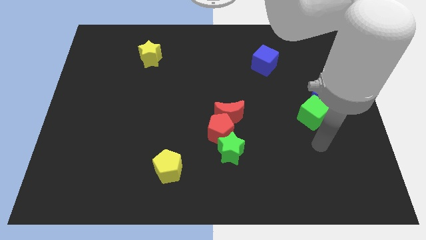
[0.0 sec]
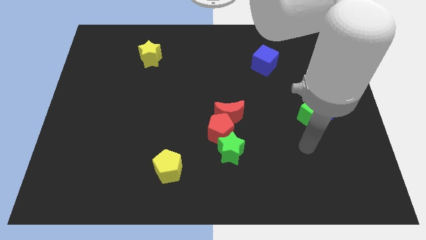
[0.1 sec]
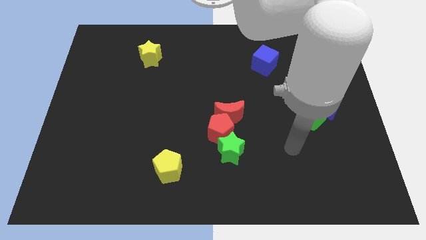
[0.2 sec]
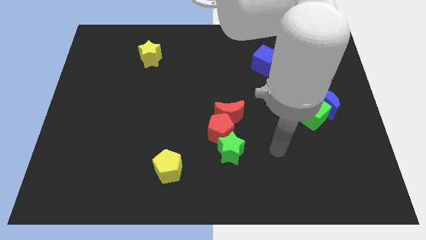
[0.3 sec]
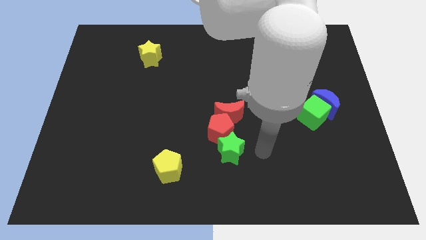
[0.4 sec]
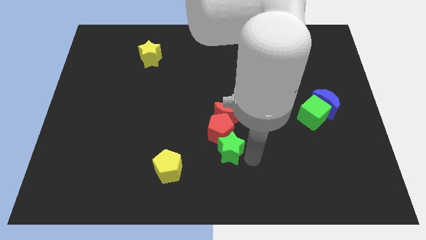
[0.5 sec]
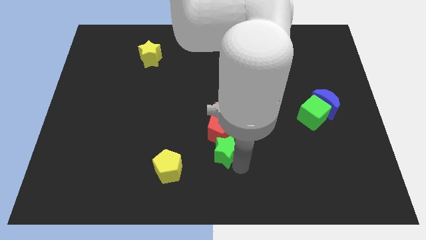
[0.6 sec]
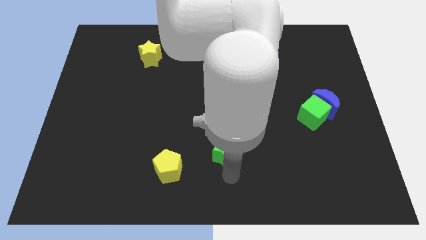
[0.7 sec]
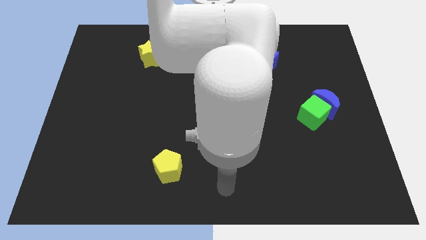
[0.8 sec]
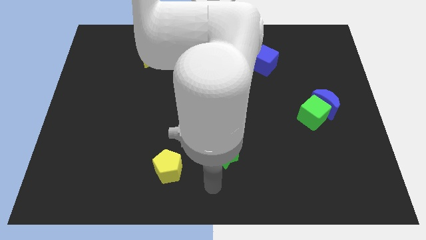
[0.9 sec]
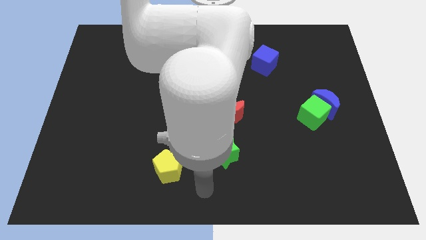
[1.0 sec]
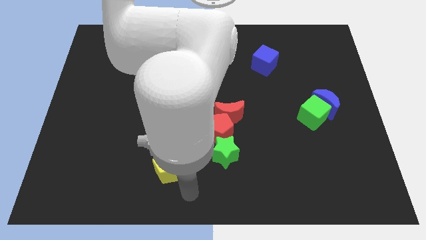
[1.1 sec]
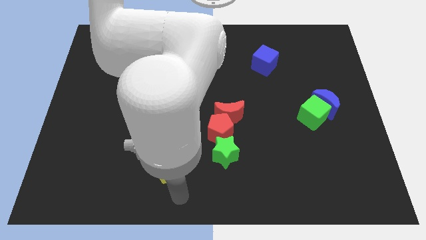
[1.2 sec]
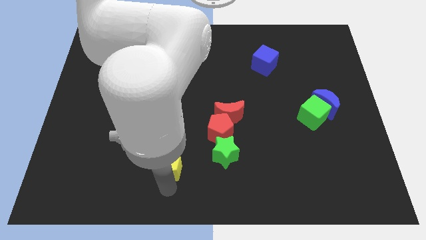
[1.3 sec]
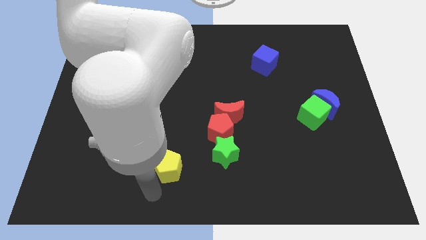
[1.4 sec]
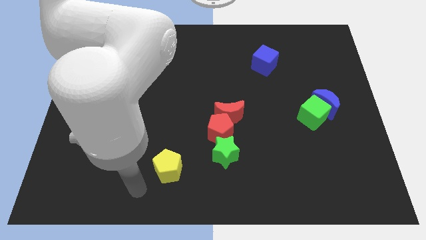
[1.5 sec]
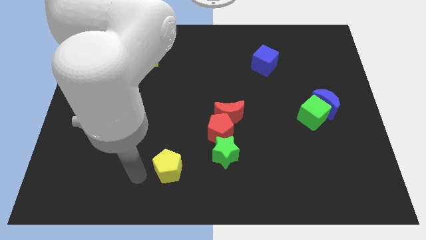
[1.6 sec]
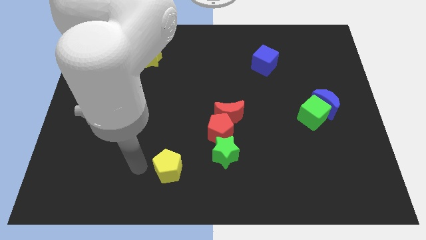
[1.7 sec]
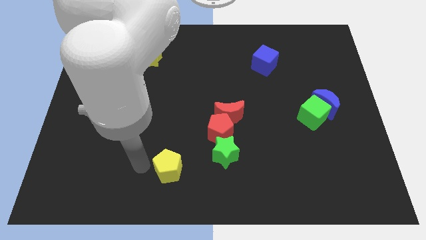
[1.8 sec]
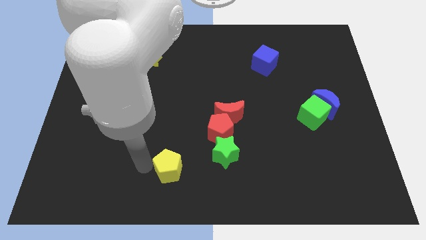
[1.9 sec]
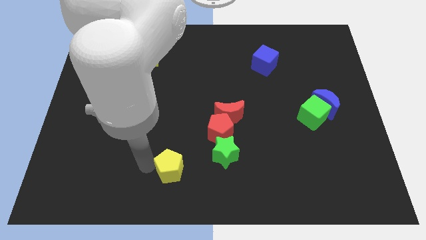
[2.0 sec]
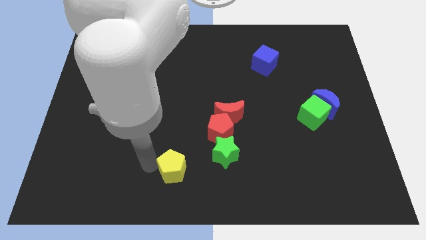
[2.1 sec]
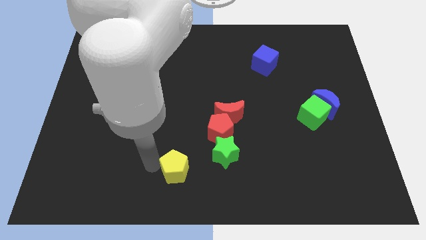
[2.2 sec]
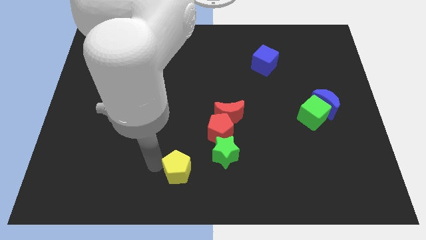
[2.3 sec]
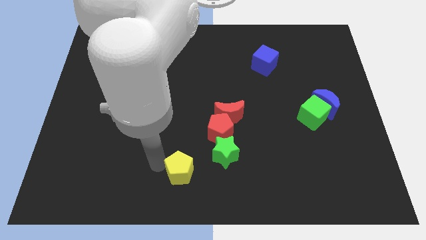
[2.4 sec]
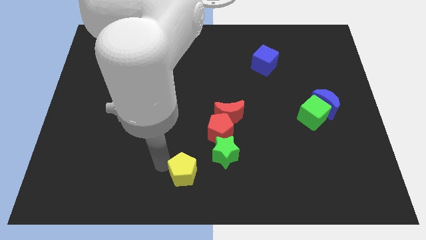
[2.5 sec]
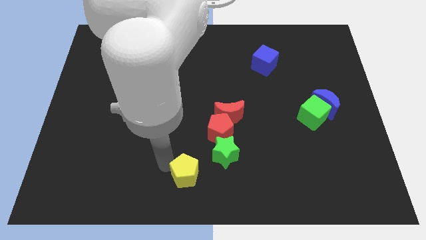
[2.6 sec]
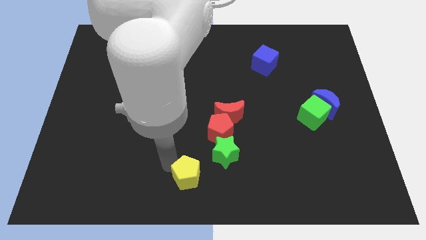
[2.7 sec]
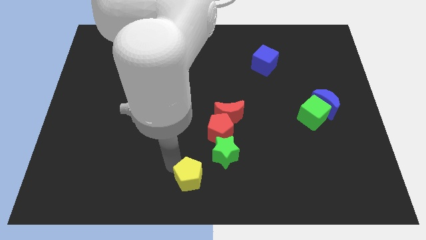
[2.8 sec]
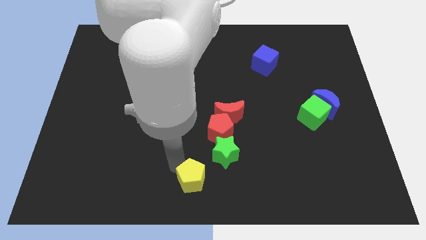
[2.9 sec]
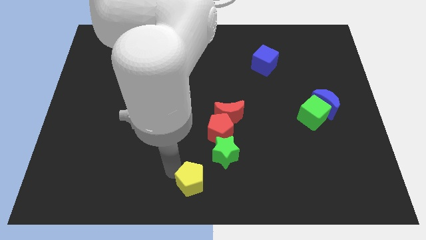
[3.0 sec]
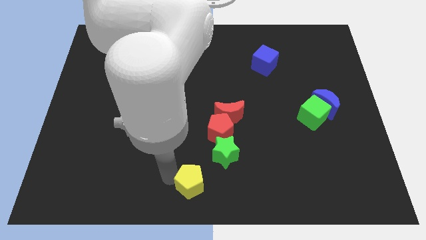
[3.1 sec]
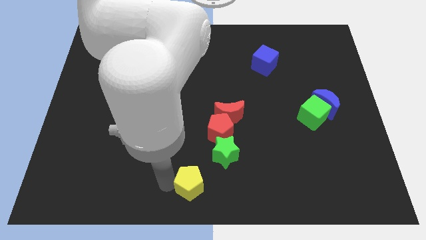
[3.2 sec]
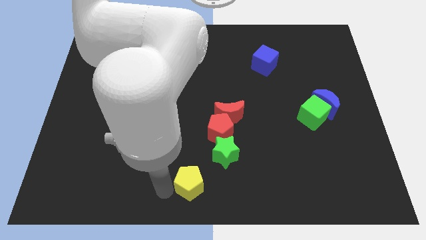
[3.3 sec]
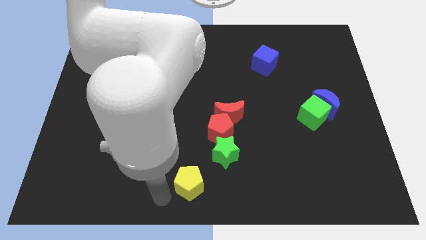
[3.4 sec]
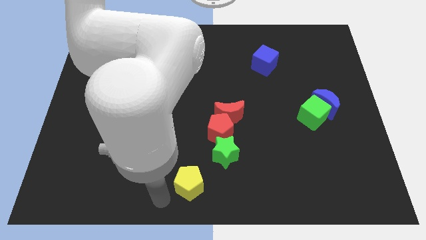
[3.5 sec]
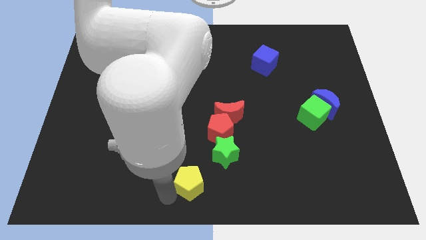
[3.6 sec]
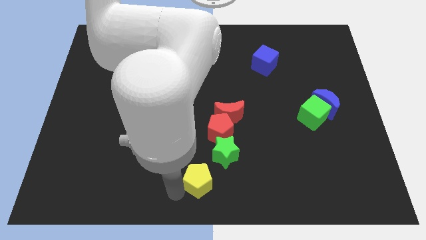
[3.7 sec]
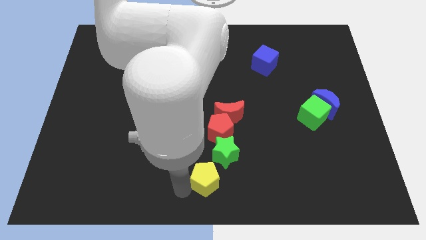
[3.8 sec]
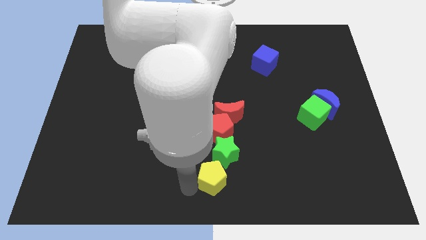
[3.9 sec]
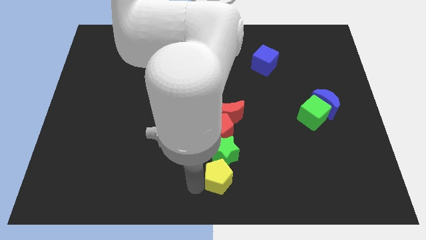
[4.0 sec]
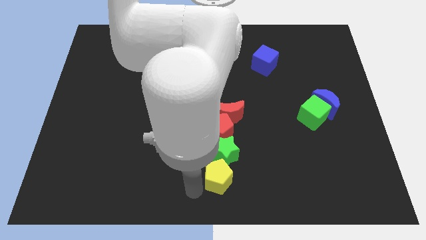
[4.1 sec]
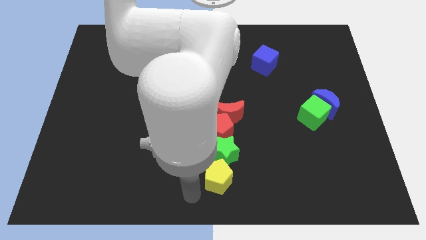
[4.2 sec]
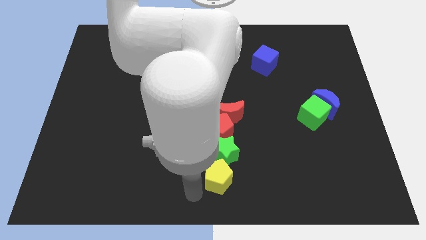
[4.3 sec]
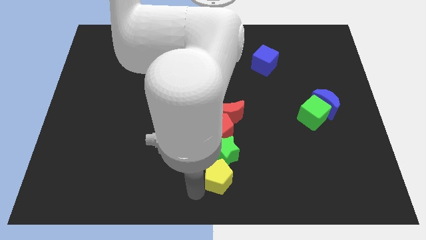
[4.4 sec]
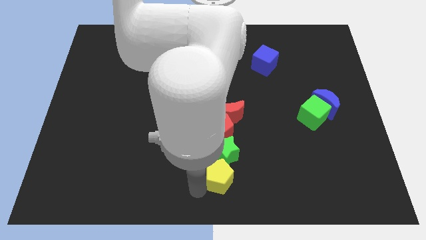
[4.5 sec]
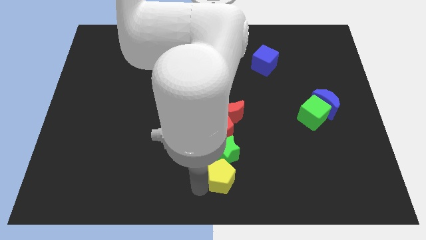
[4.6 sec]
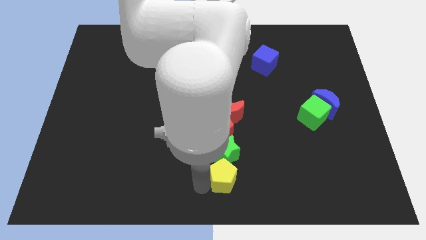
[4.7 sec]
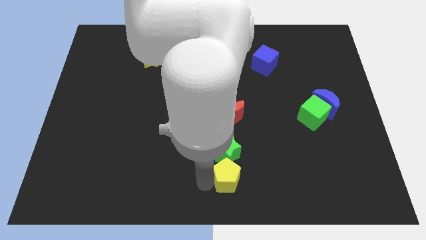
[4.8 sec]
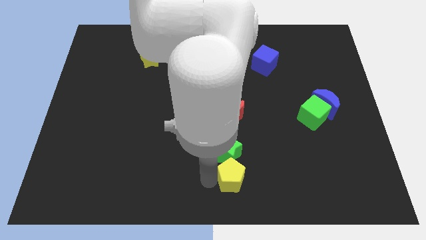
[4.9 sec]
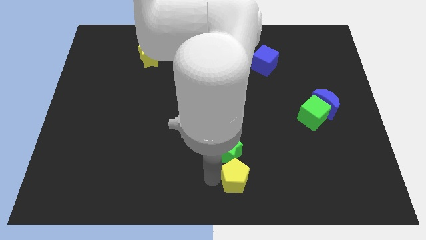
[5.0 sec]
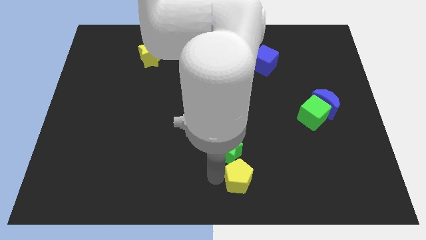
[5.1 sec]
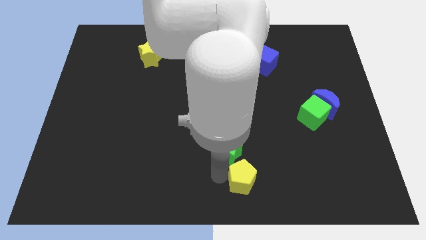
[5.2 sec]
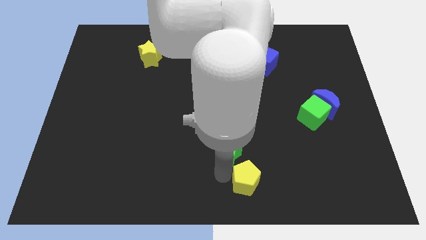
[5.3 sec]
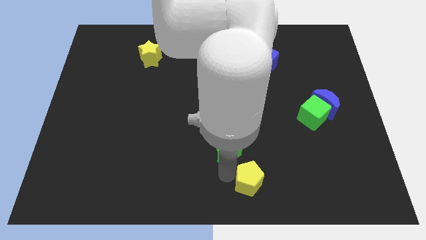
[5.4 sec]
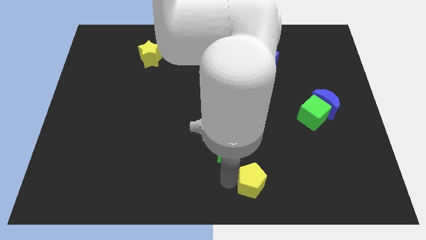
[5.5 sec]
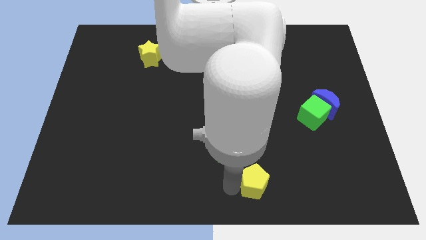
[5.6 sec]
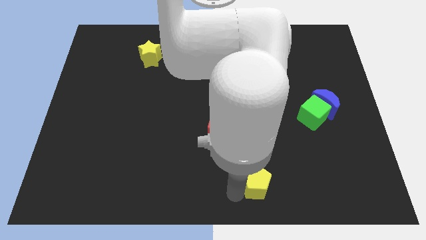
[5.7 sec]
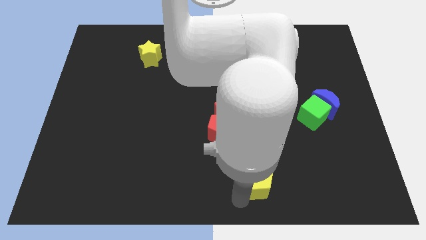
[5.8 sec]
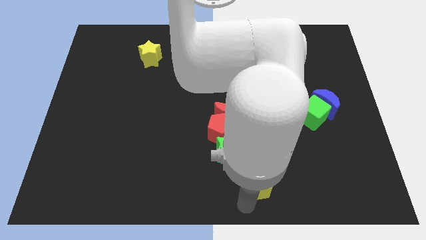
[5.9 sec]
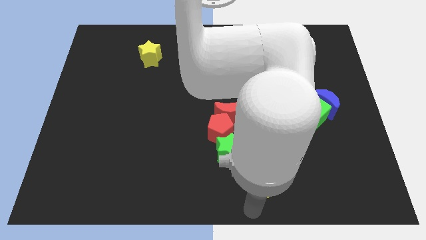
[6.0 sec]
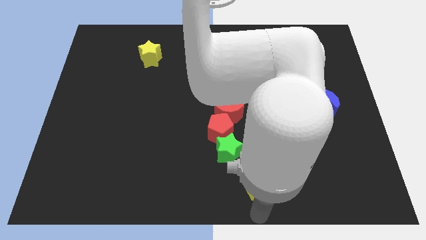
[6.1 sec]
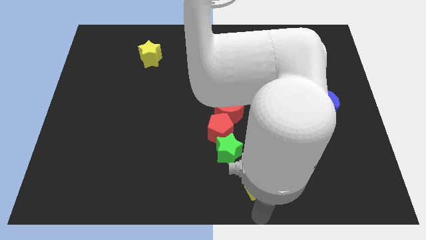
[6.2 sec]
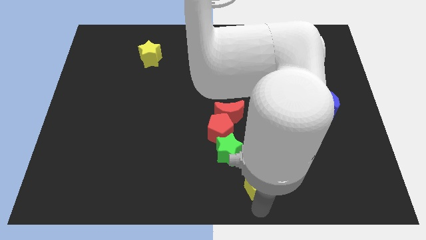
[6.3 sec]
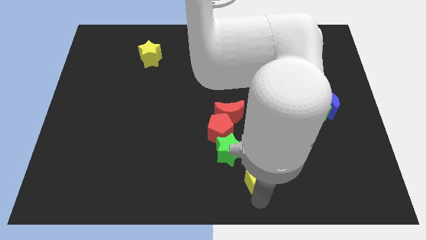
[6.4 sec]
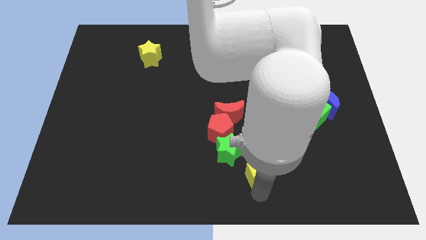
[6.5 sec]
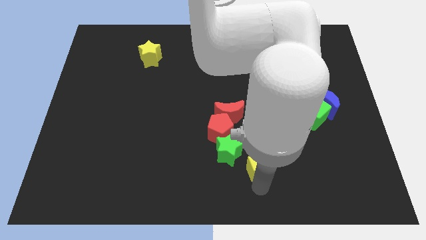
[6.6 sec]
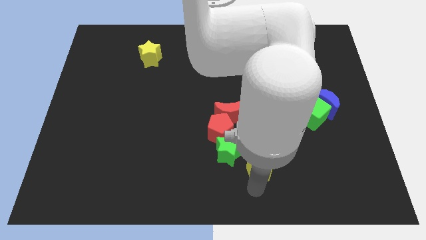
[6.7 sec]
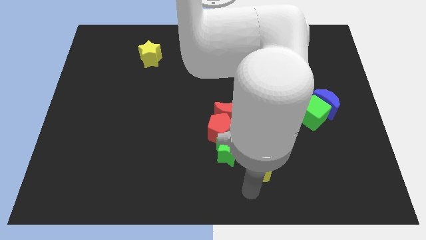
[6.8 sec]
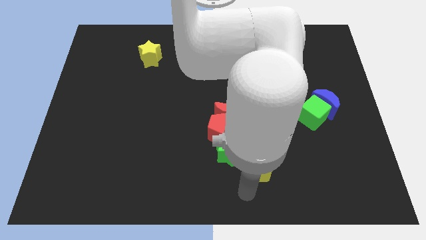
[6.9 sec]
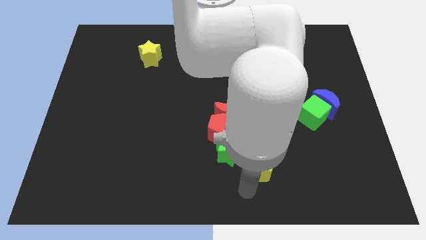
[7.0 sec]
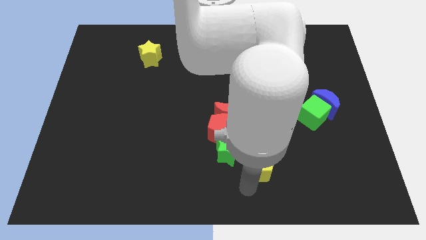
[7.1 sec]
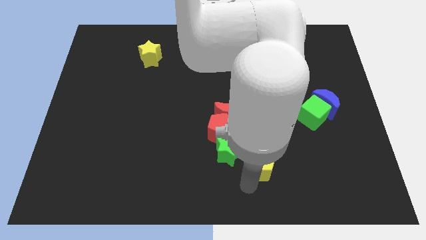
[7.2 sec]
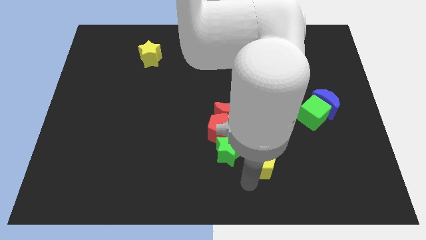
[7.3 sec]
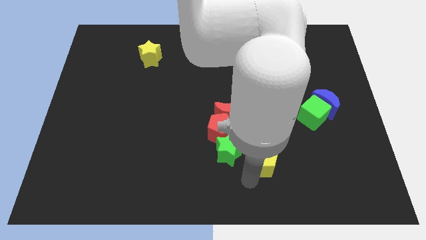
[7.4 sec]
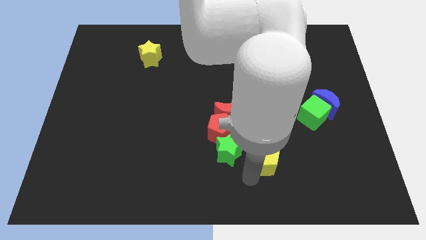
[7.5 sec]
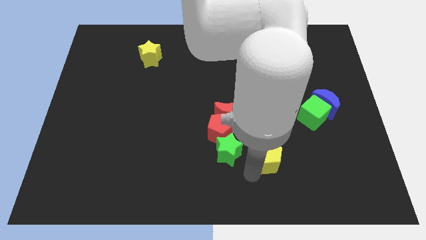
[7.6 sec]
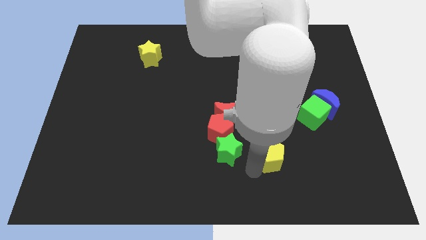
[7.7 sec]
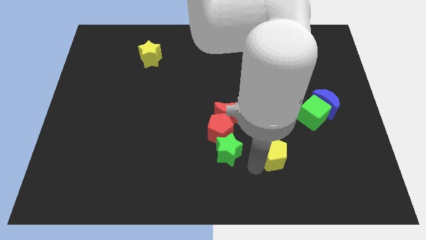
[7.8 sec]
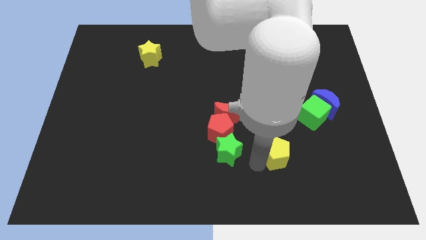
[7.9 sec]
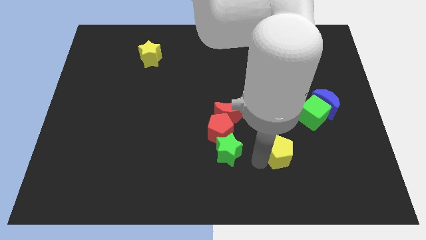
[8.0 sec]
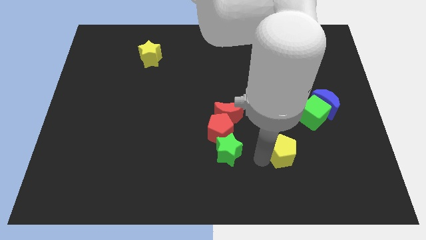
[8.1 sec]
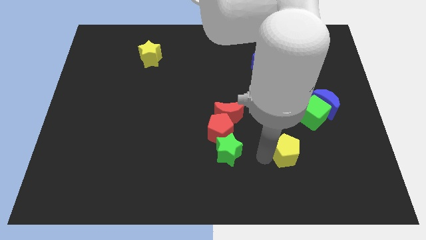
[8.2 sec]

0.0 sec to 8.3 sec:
put the yellow pentagon diagonally down and to the left of the green cube
